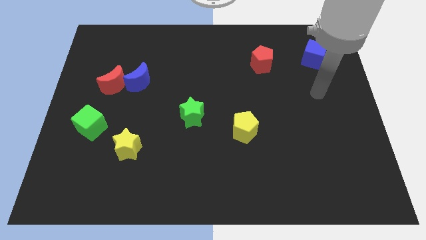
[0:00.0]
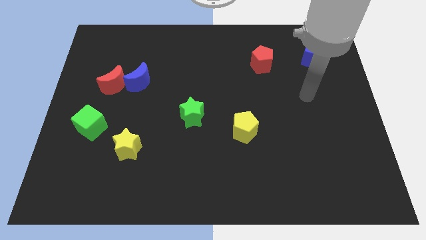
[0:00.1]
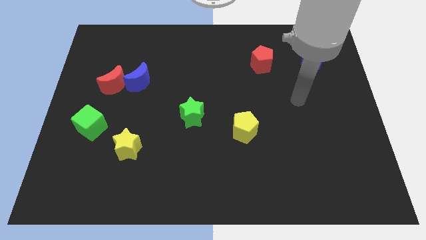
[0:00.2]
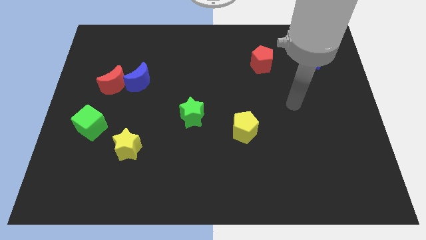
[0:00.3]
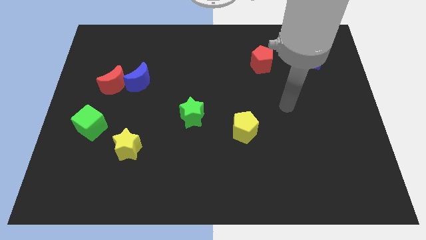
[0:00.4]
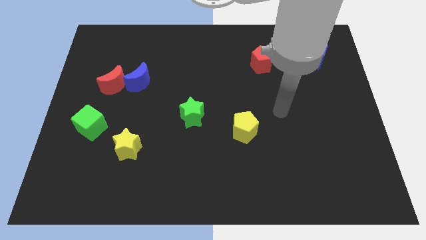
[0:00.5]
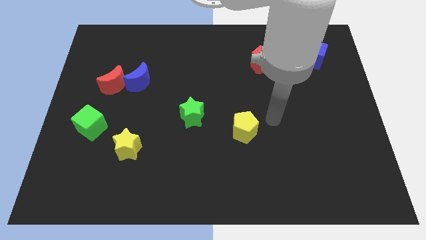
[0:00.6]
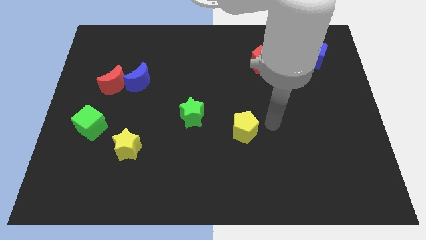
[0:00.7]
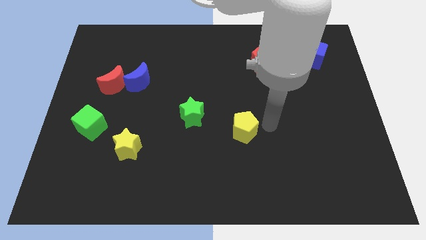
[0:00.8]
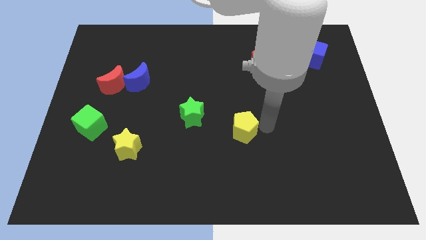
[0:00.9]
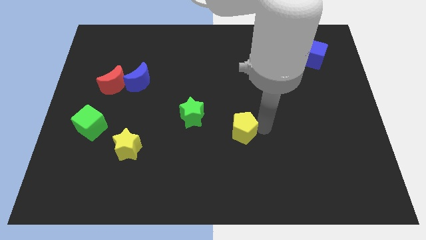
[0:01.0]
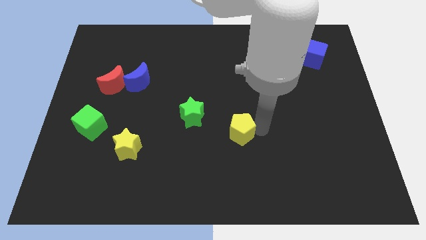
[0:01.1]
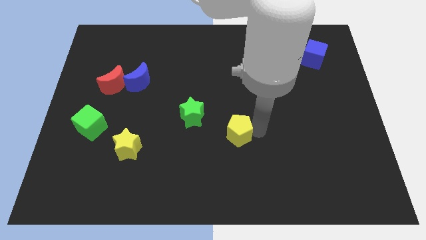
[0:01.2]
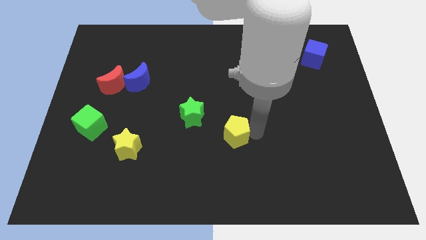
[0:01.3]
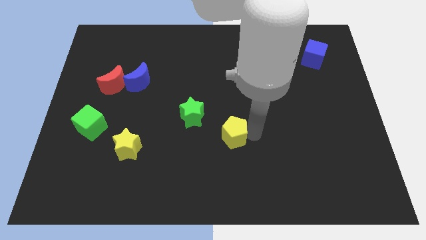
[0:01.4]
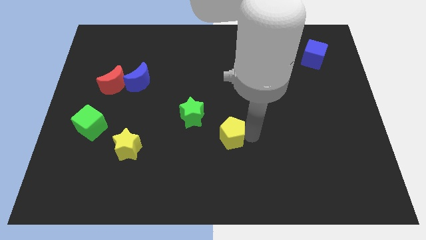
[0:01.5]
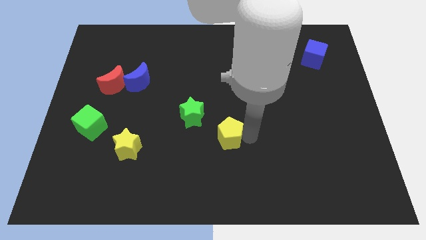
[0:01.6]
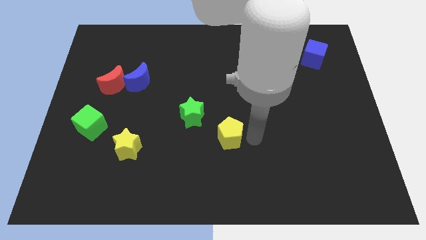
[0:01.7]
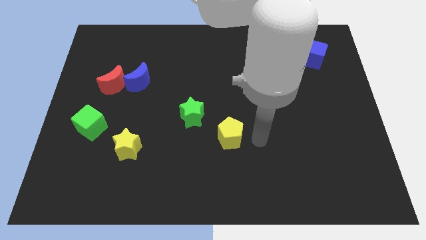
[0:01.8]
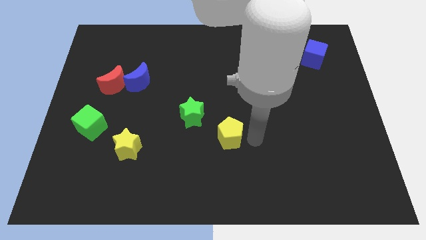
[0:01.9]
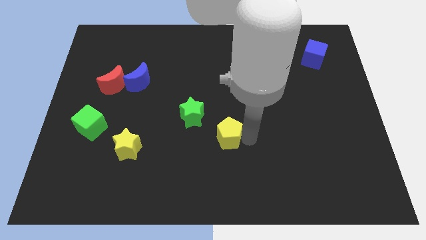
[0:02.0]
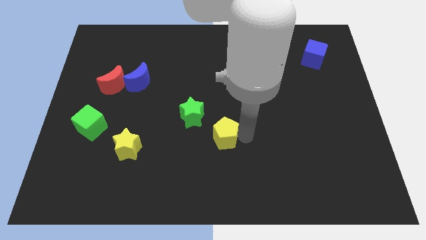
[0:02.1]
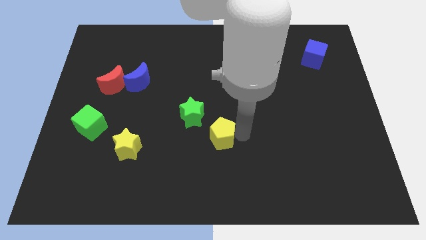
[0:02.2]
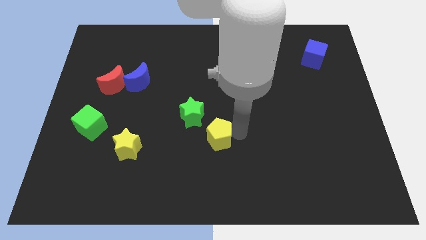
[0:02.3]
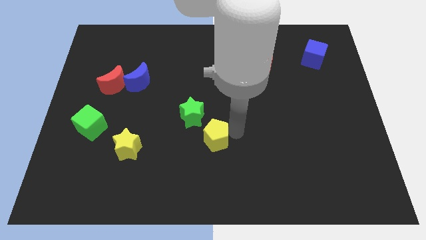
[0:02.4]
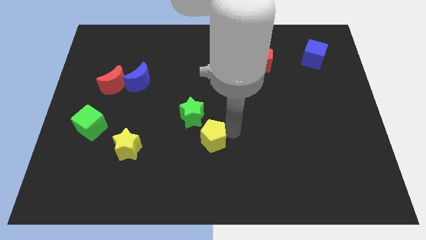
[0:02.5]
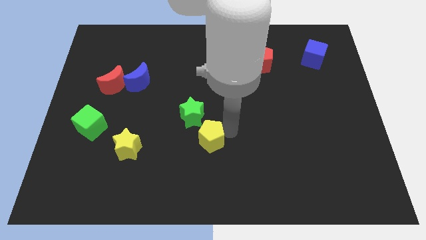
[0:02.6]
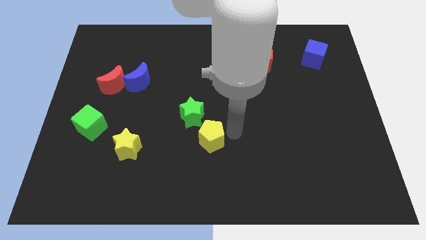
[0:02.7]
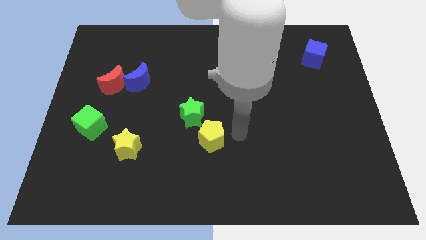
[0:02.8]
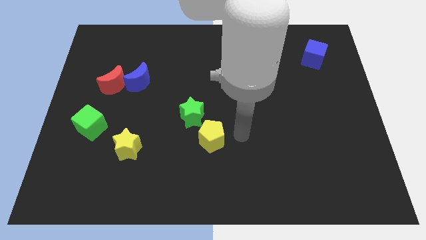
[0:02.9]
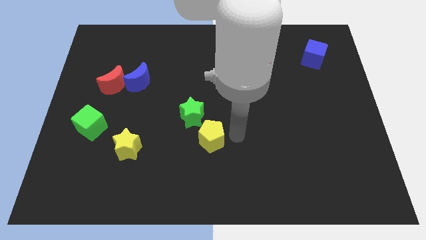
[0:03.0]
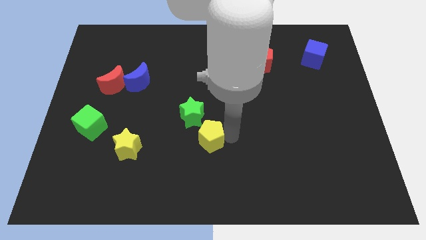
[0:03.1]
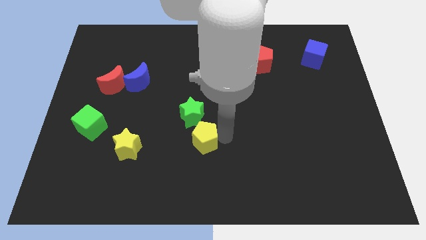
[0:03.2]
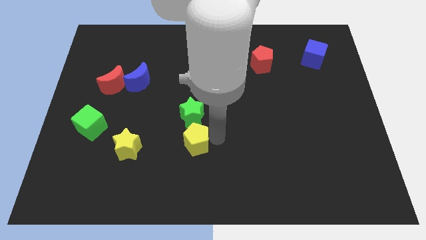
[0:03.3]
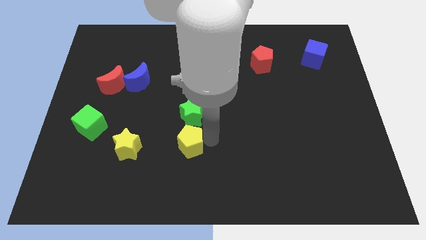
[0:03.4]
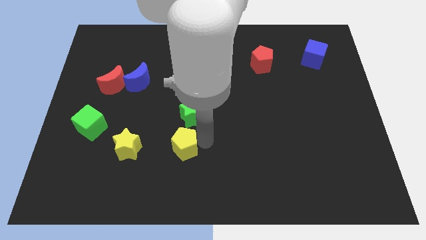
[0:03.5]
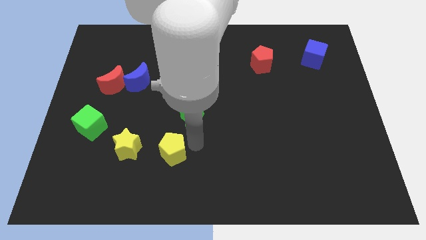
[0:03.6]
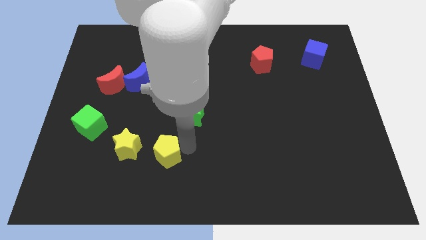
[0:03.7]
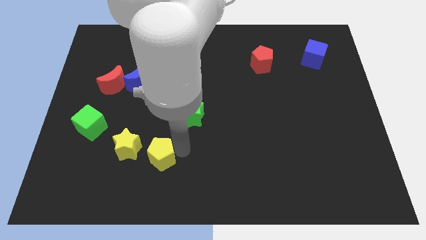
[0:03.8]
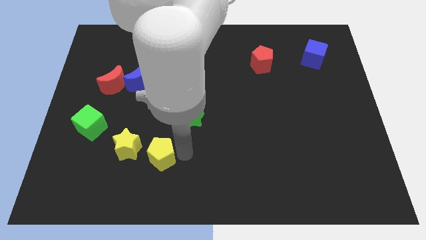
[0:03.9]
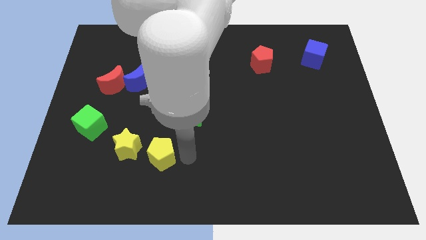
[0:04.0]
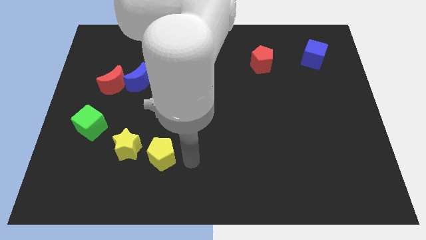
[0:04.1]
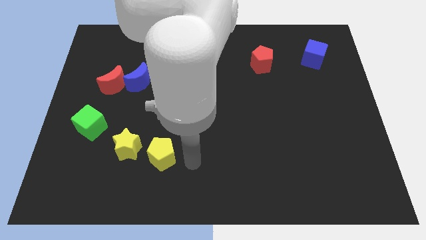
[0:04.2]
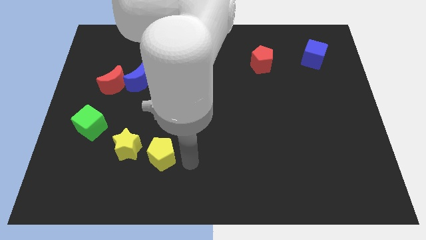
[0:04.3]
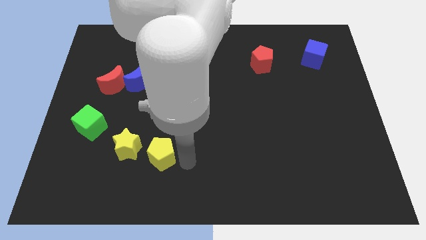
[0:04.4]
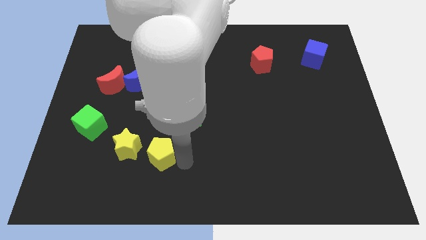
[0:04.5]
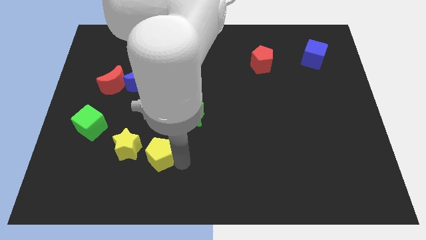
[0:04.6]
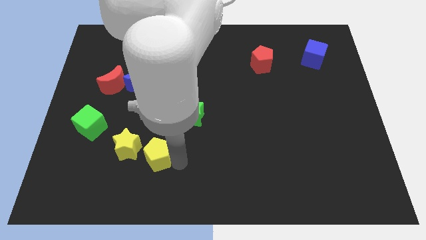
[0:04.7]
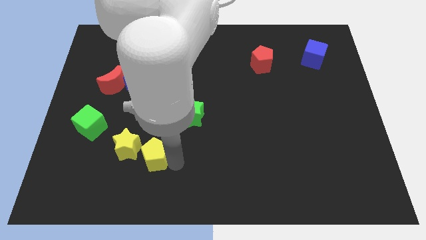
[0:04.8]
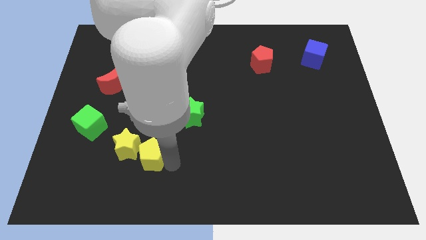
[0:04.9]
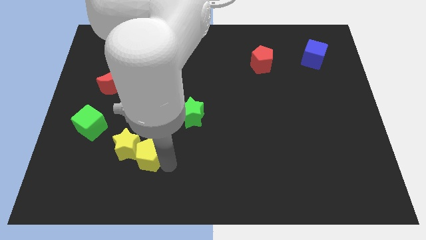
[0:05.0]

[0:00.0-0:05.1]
put the yellow pentagon next to the yellow star

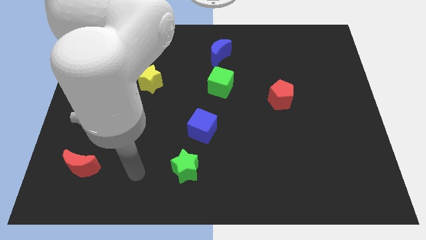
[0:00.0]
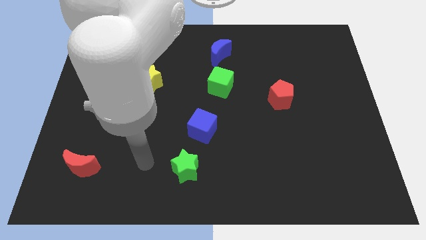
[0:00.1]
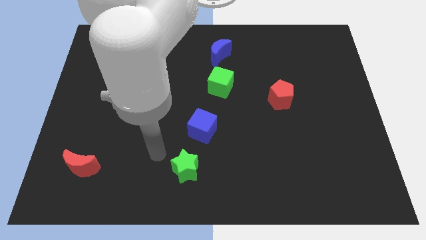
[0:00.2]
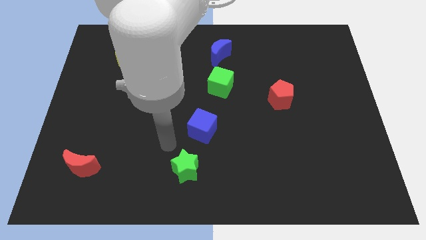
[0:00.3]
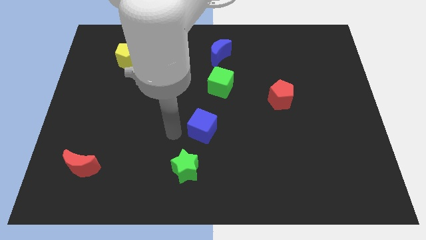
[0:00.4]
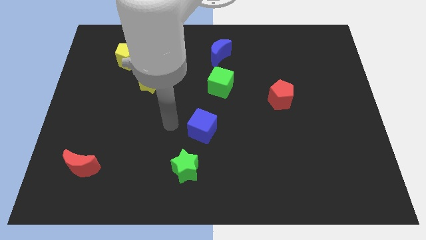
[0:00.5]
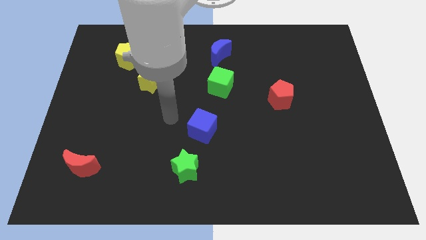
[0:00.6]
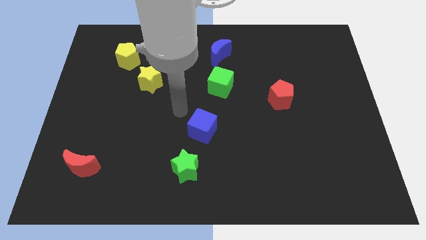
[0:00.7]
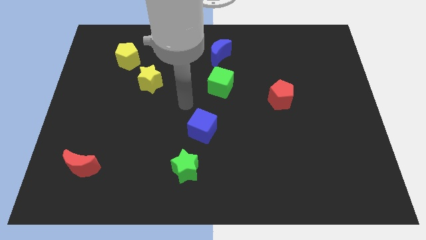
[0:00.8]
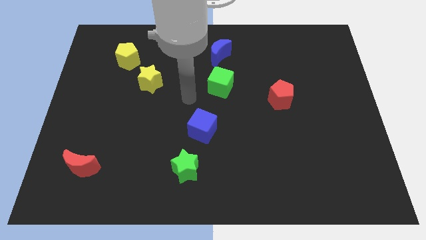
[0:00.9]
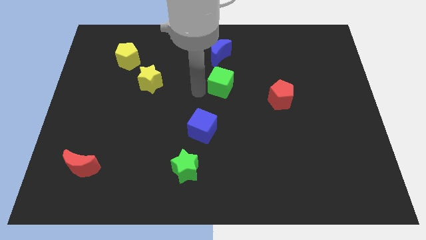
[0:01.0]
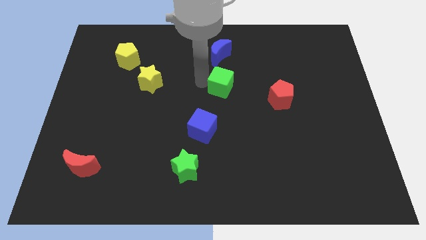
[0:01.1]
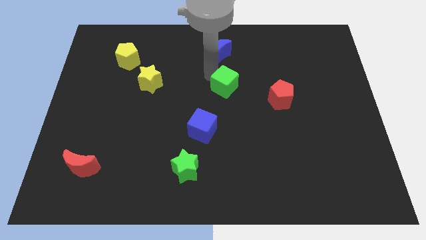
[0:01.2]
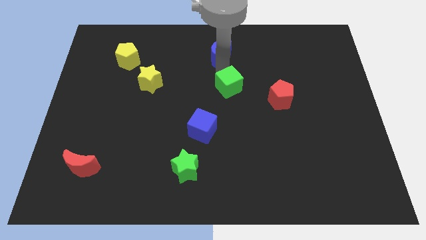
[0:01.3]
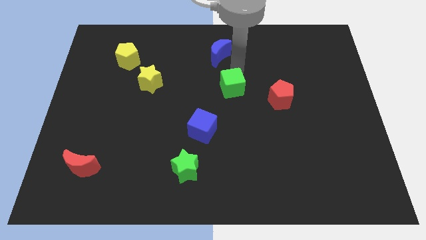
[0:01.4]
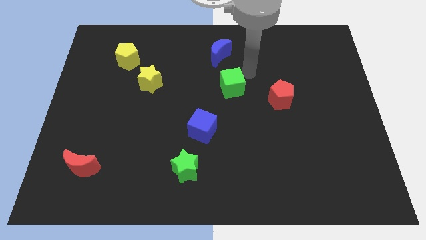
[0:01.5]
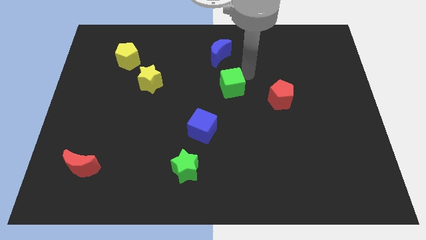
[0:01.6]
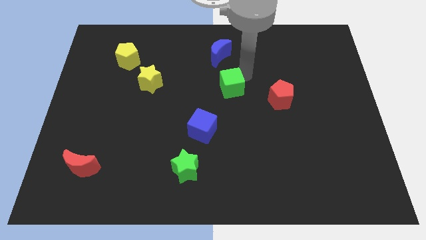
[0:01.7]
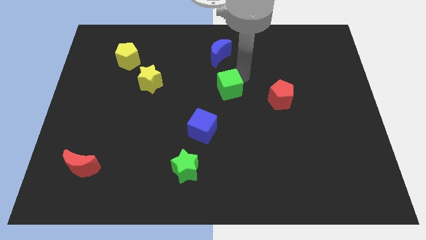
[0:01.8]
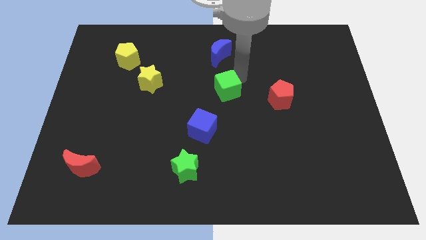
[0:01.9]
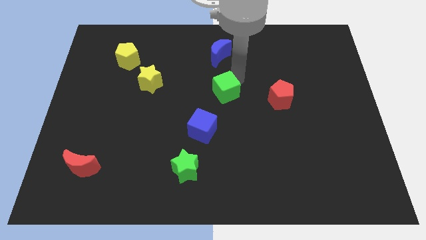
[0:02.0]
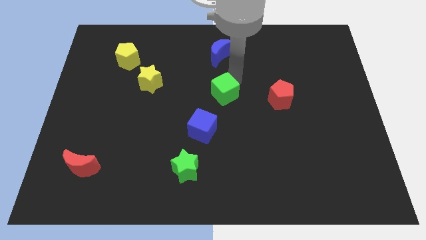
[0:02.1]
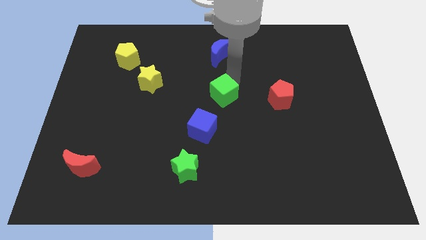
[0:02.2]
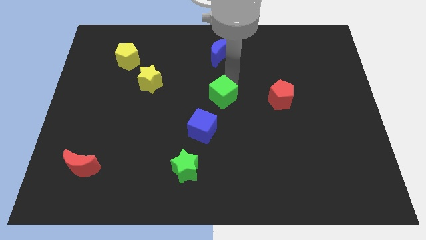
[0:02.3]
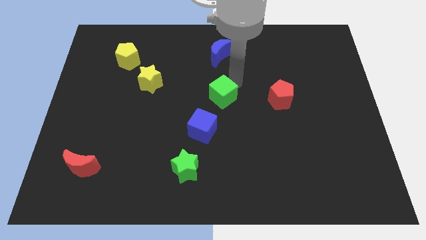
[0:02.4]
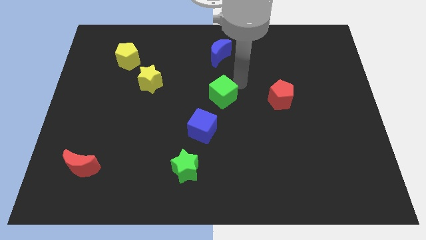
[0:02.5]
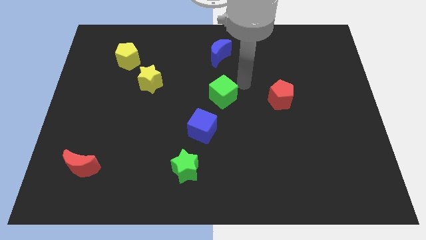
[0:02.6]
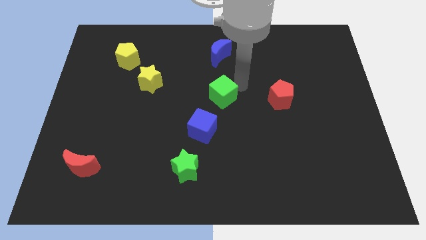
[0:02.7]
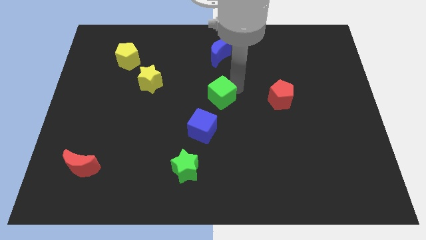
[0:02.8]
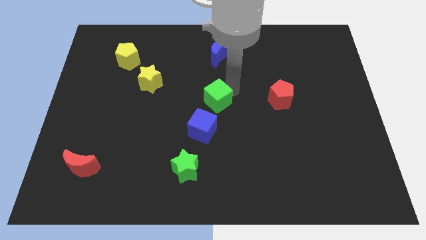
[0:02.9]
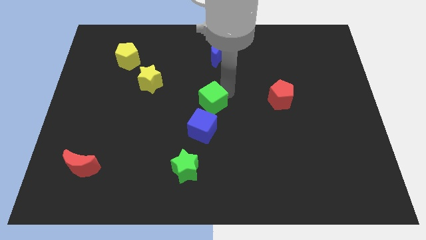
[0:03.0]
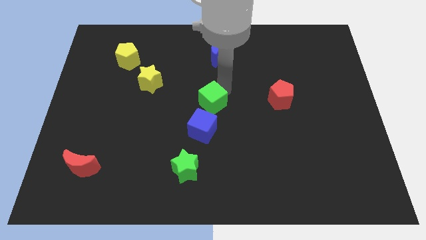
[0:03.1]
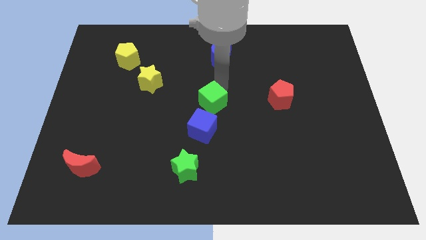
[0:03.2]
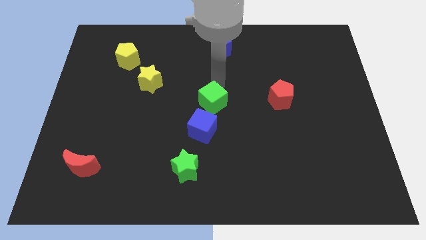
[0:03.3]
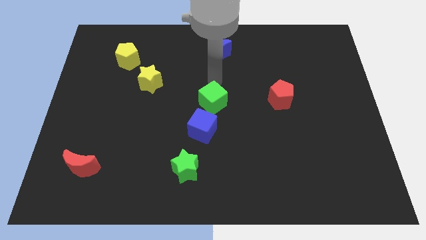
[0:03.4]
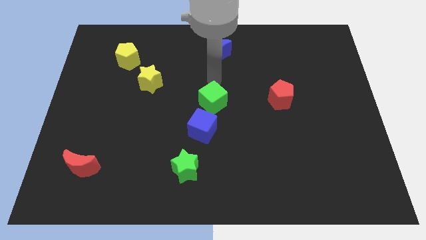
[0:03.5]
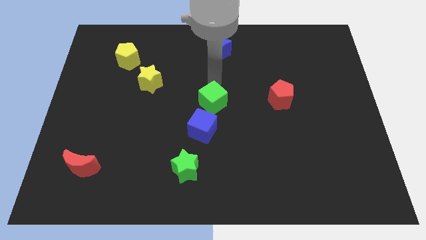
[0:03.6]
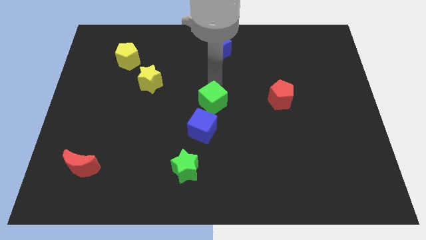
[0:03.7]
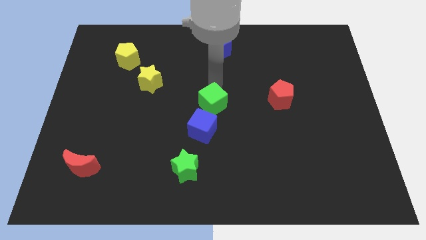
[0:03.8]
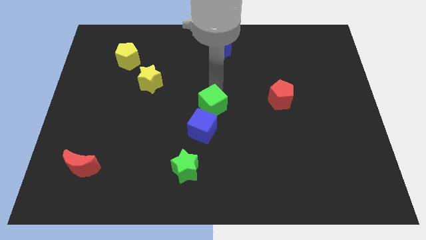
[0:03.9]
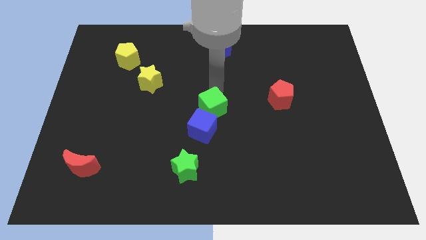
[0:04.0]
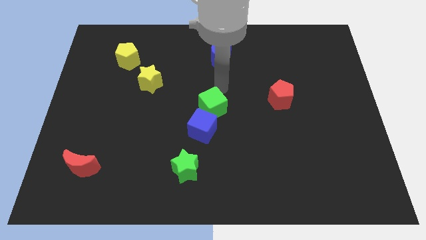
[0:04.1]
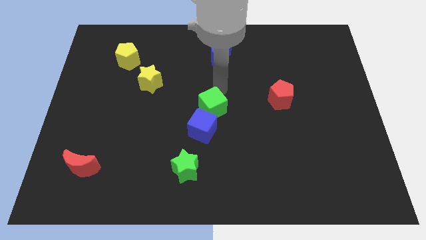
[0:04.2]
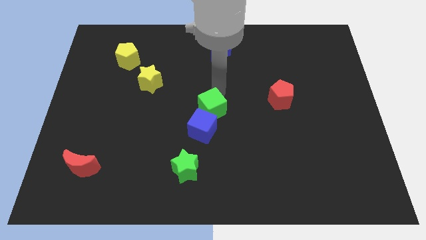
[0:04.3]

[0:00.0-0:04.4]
put the green cube next to the blue cube
